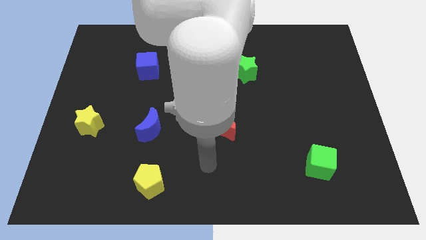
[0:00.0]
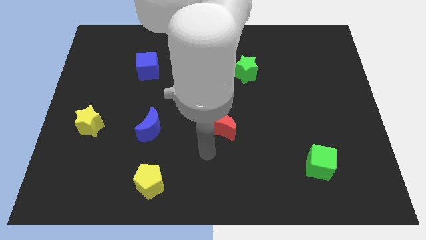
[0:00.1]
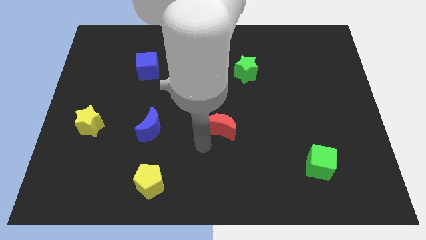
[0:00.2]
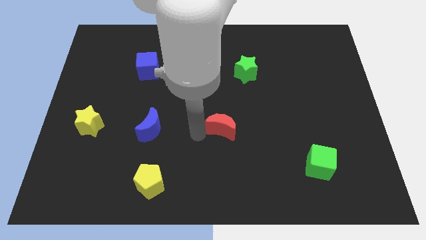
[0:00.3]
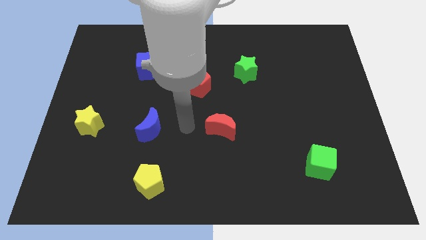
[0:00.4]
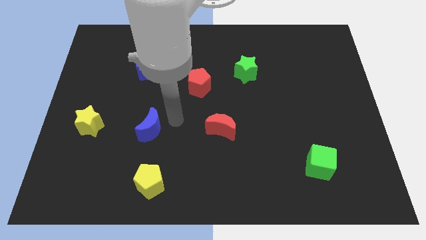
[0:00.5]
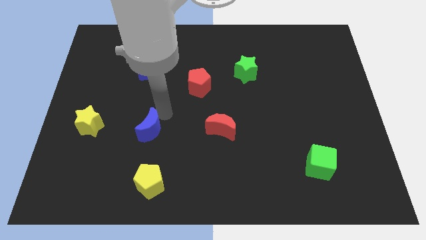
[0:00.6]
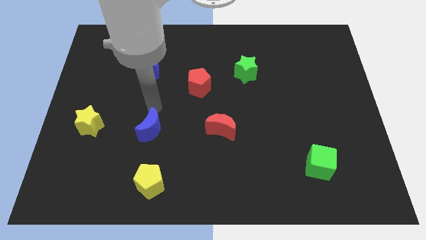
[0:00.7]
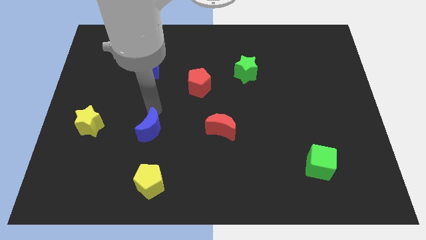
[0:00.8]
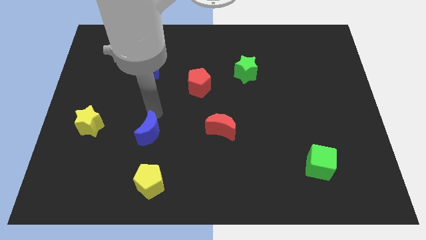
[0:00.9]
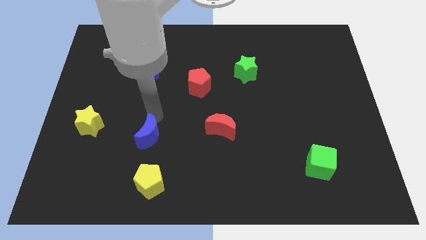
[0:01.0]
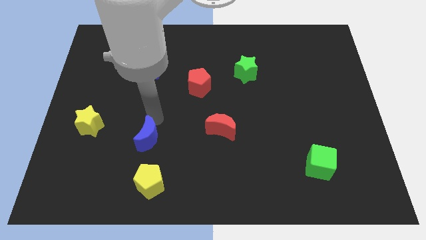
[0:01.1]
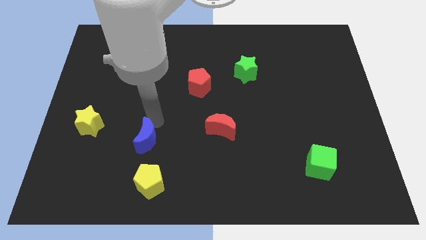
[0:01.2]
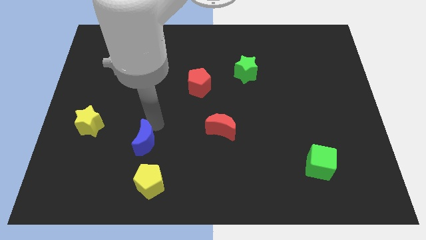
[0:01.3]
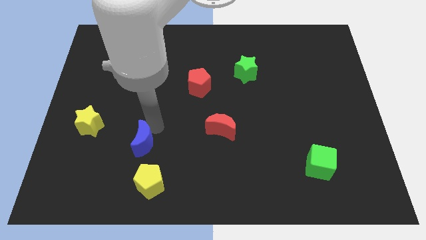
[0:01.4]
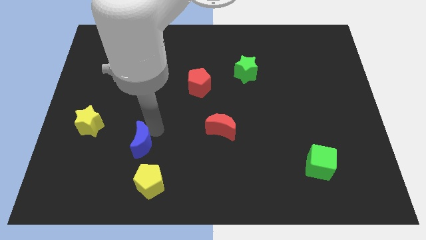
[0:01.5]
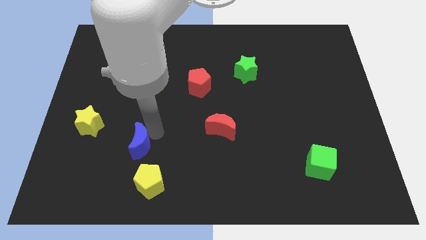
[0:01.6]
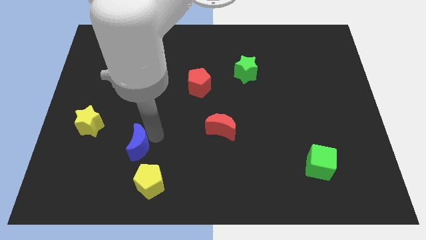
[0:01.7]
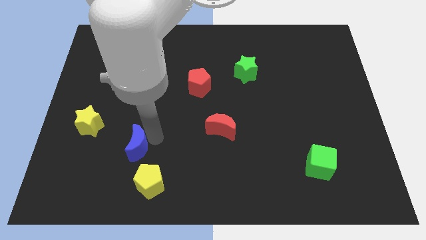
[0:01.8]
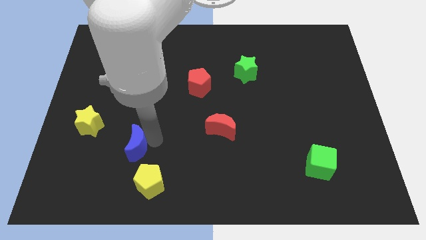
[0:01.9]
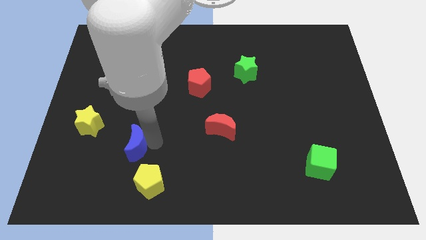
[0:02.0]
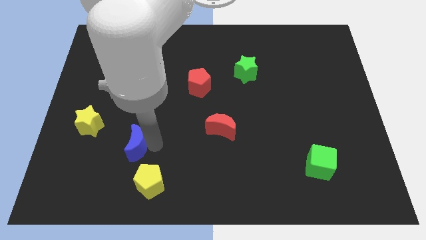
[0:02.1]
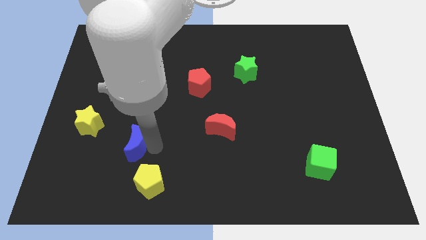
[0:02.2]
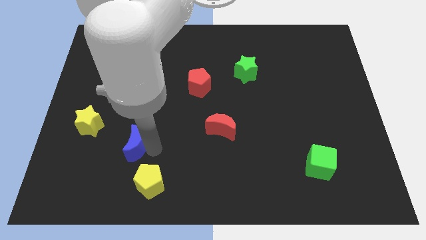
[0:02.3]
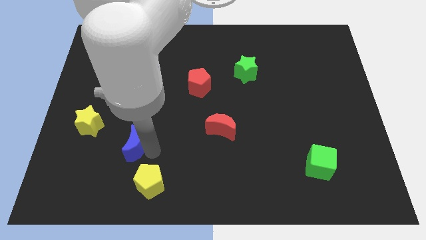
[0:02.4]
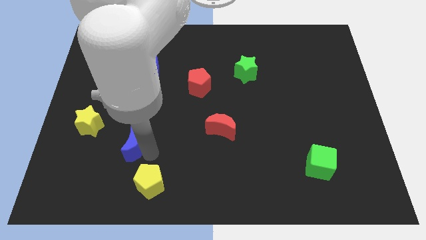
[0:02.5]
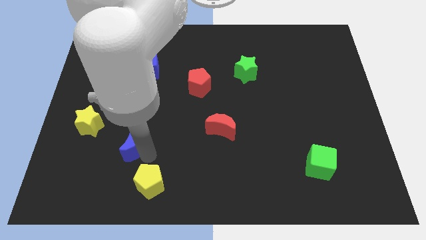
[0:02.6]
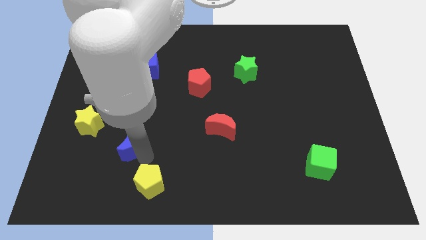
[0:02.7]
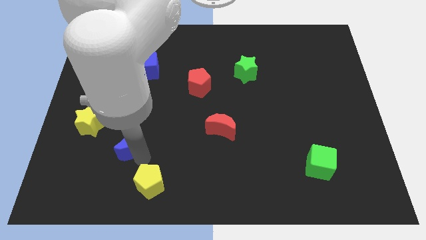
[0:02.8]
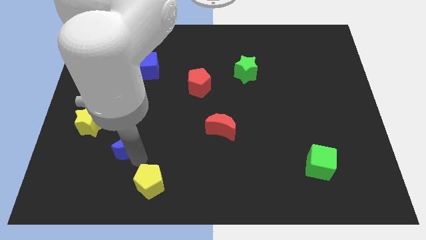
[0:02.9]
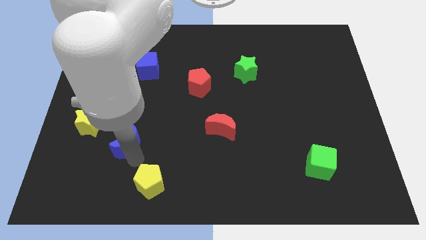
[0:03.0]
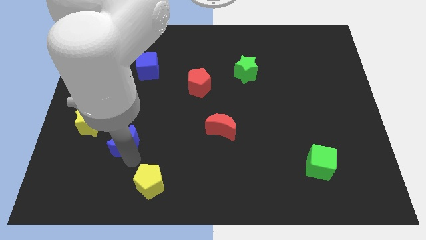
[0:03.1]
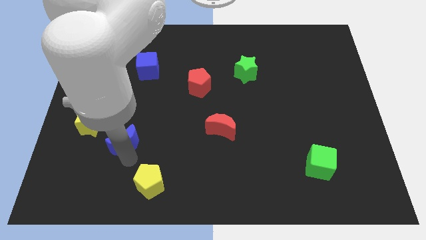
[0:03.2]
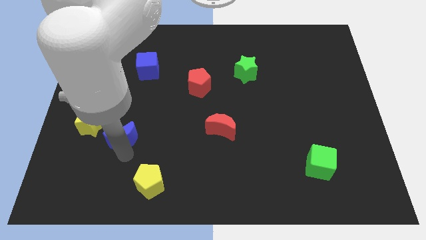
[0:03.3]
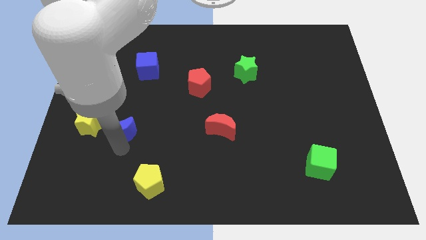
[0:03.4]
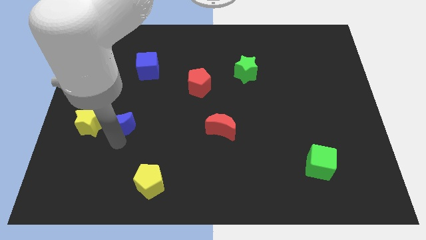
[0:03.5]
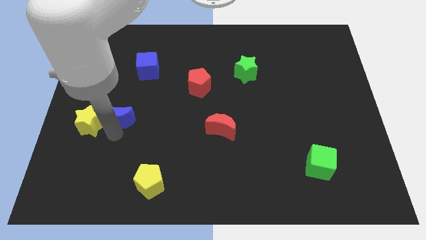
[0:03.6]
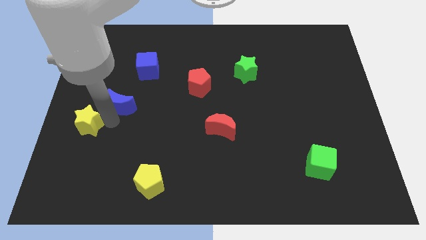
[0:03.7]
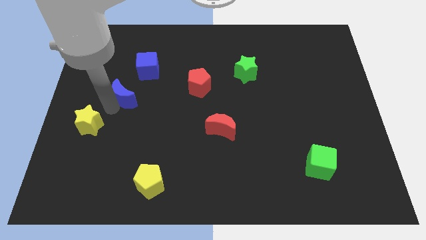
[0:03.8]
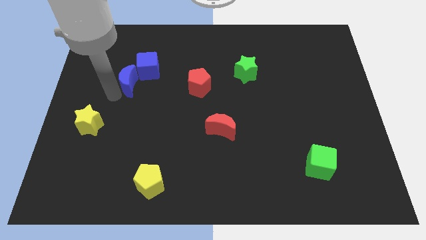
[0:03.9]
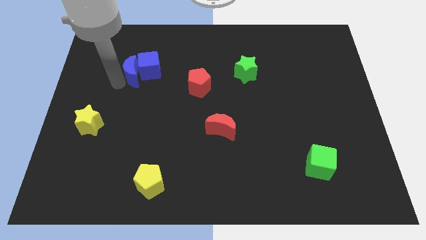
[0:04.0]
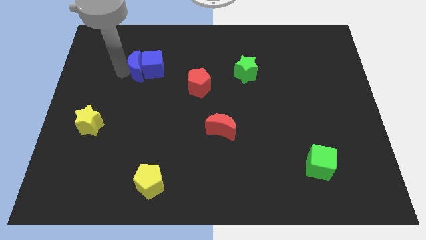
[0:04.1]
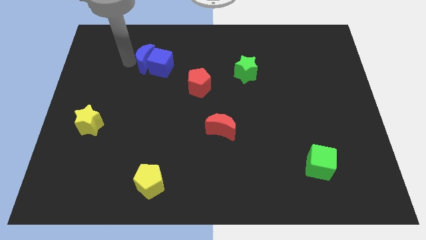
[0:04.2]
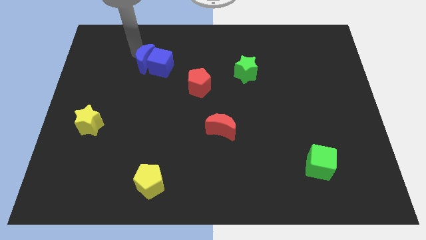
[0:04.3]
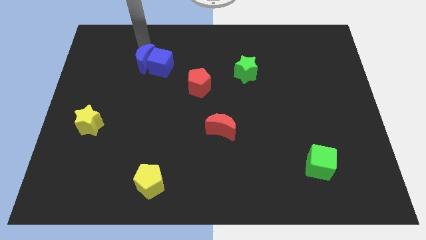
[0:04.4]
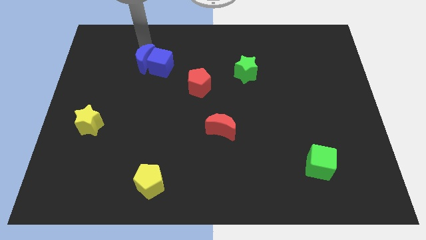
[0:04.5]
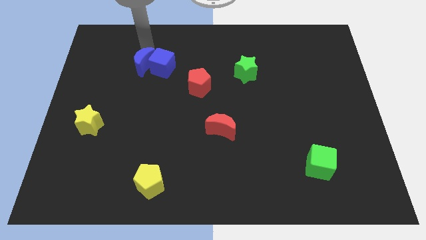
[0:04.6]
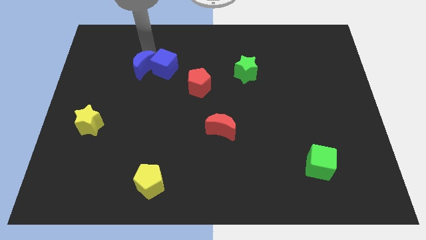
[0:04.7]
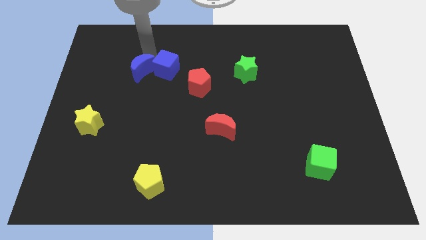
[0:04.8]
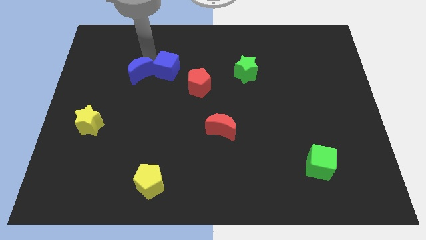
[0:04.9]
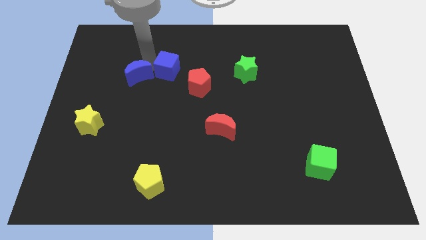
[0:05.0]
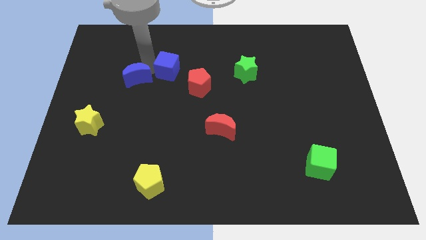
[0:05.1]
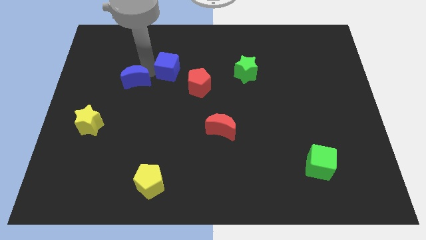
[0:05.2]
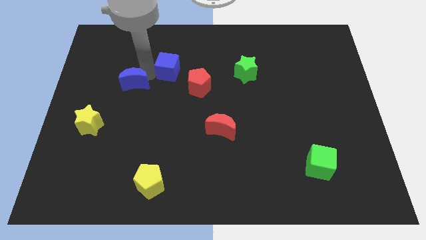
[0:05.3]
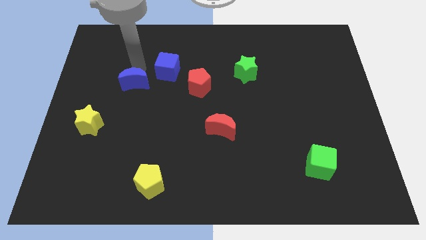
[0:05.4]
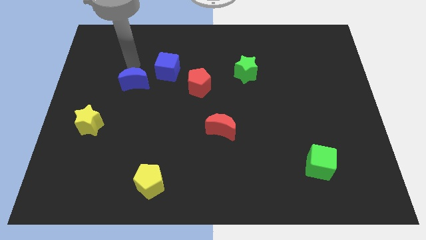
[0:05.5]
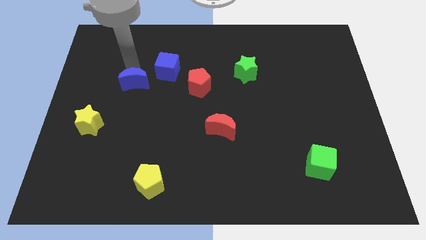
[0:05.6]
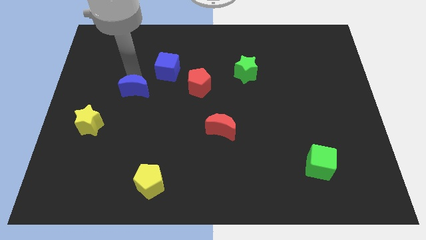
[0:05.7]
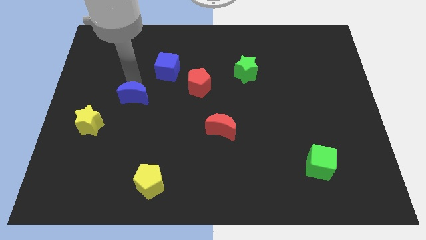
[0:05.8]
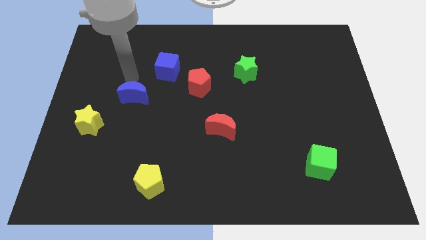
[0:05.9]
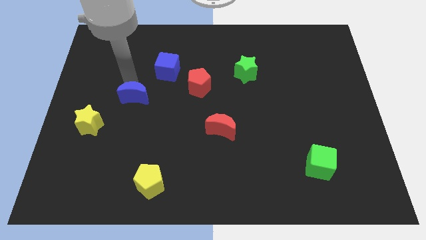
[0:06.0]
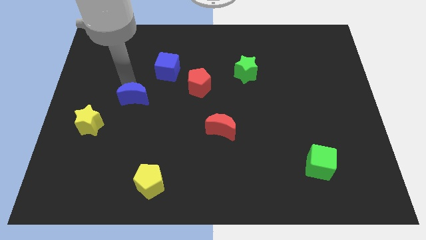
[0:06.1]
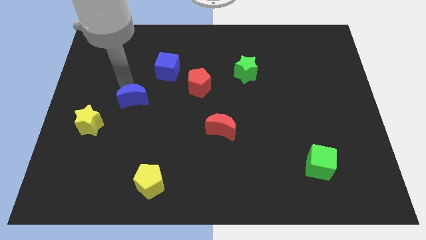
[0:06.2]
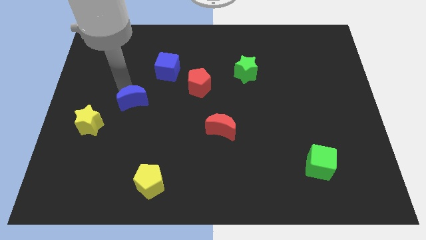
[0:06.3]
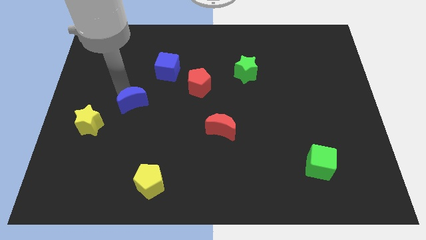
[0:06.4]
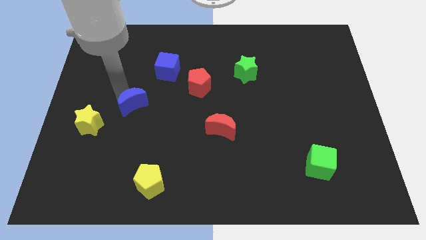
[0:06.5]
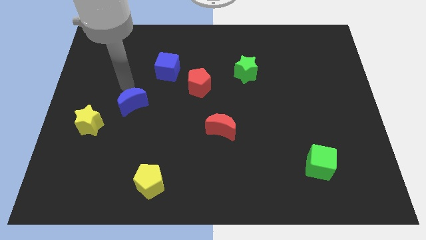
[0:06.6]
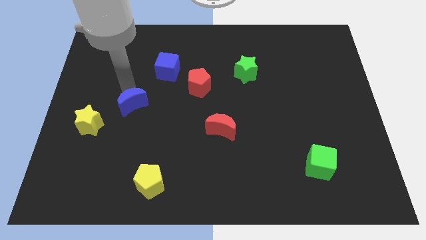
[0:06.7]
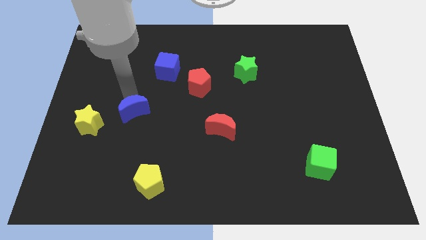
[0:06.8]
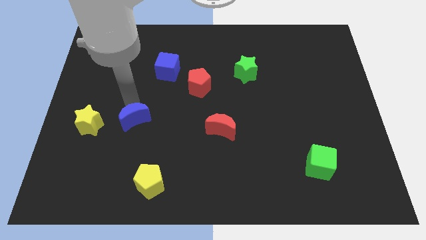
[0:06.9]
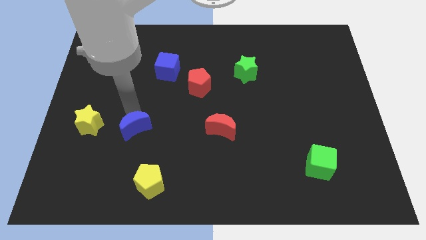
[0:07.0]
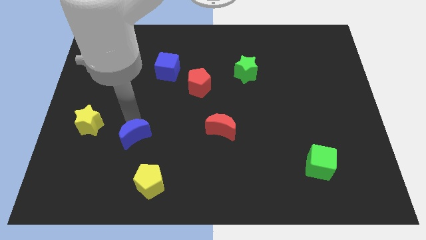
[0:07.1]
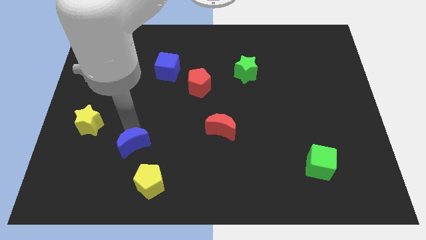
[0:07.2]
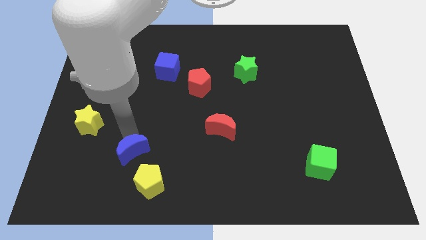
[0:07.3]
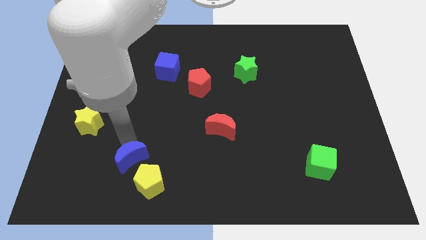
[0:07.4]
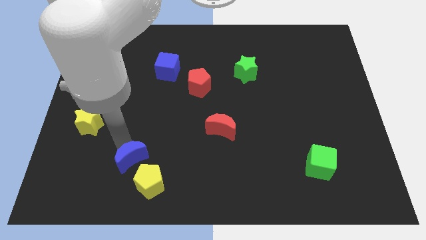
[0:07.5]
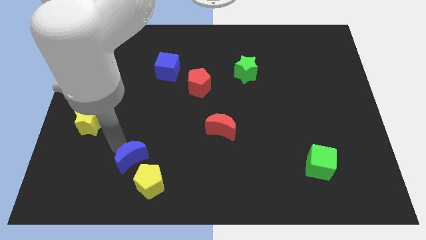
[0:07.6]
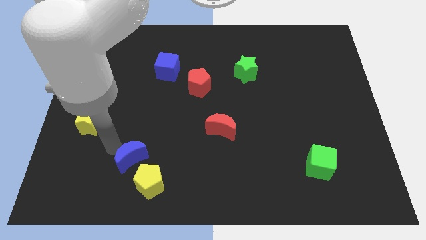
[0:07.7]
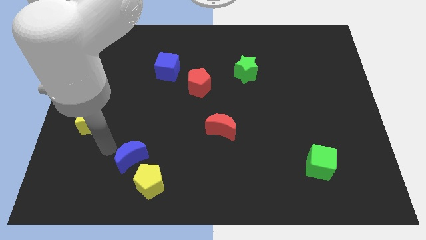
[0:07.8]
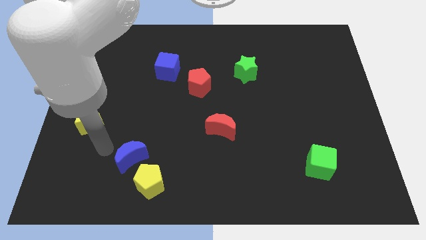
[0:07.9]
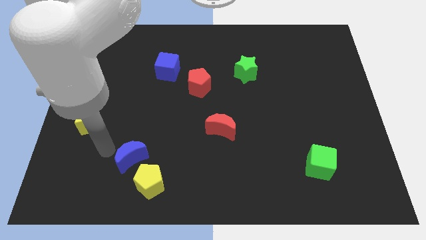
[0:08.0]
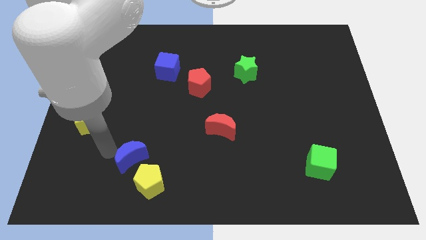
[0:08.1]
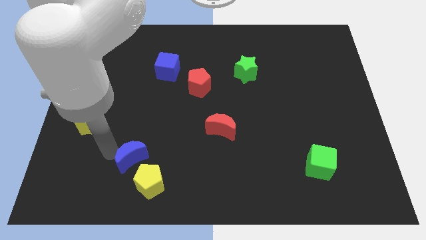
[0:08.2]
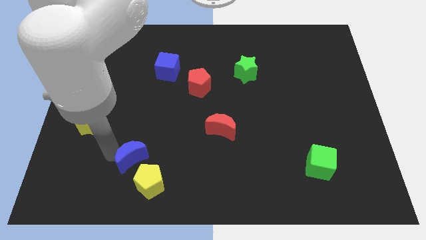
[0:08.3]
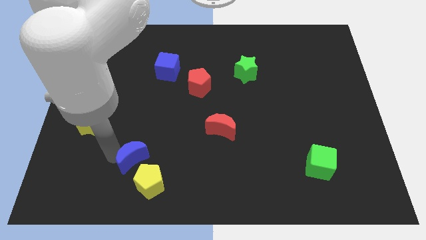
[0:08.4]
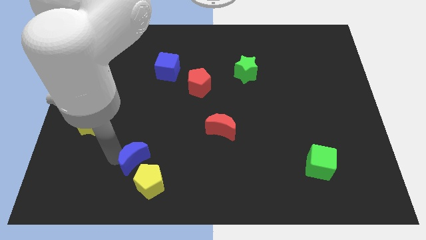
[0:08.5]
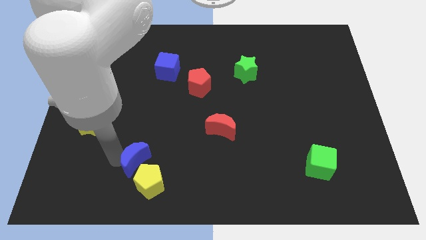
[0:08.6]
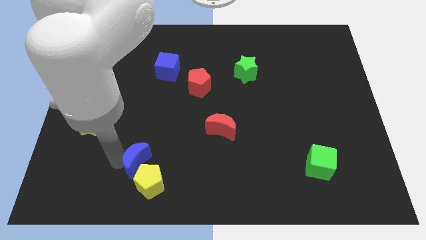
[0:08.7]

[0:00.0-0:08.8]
put the blue moon close to the yellow pentagon
